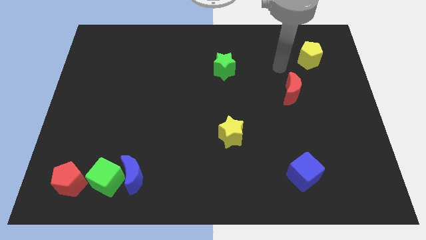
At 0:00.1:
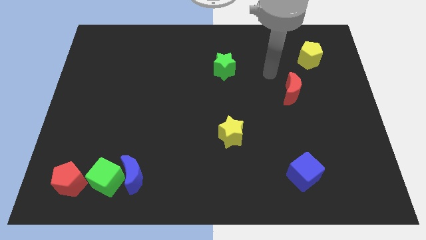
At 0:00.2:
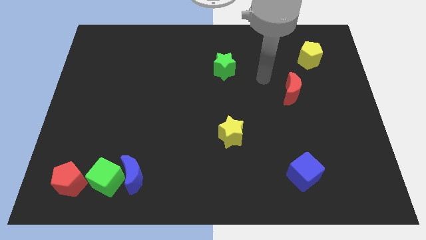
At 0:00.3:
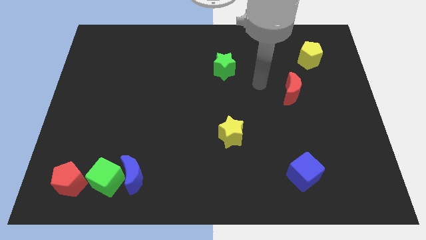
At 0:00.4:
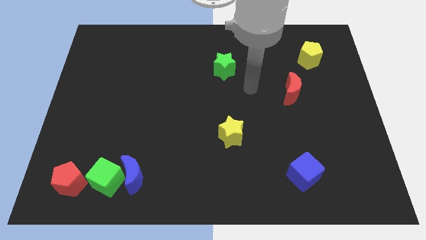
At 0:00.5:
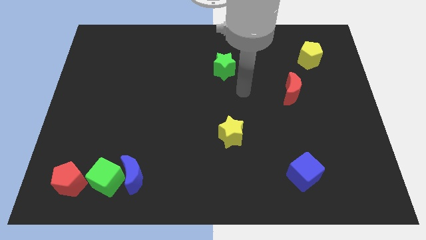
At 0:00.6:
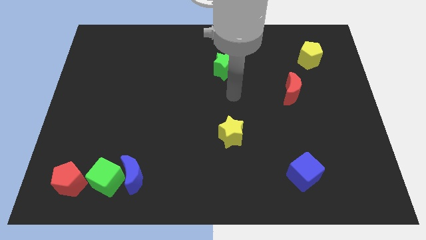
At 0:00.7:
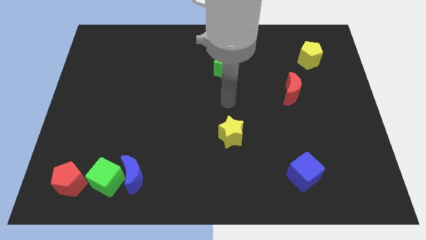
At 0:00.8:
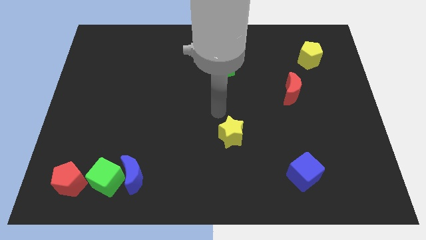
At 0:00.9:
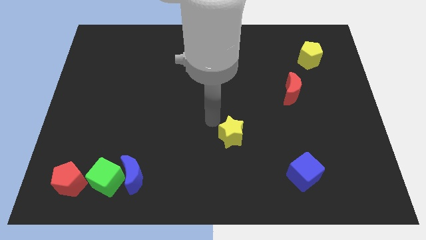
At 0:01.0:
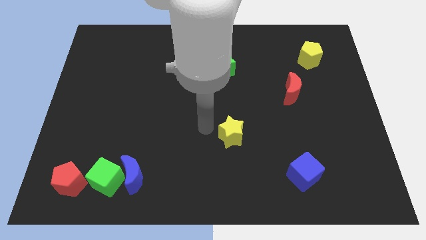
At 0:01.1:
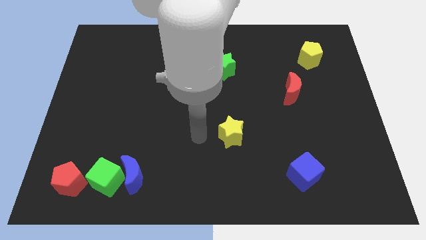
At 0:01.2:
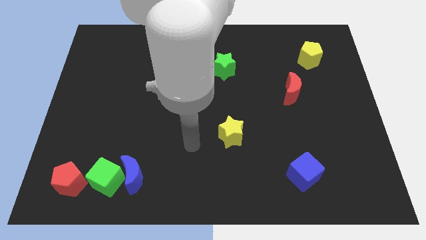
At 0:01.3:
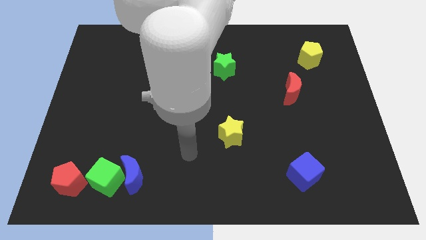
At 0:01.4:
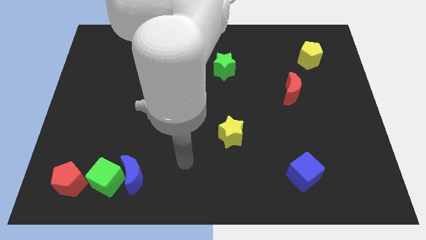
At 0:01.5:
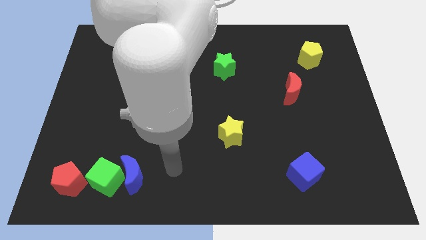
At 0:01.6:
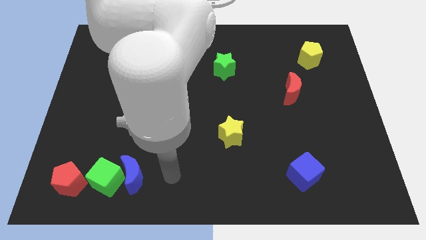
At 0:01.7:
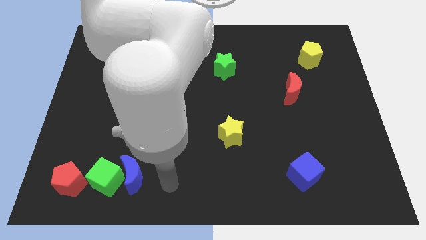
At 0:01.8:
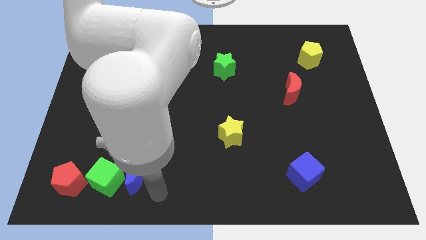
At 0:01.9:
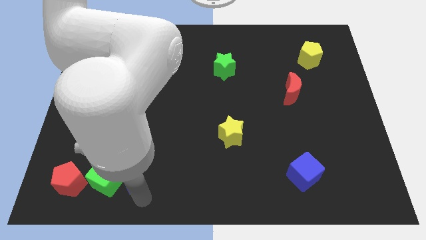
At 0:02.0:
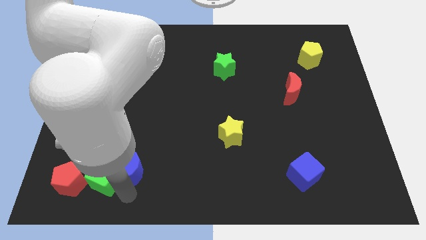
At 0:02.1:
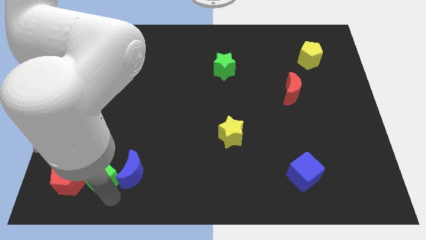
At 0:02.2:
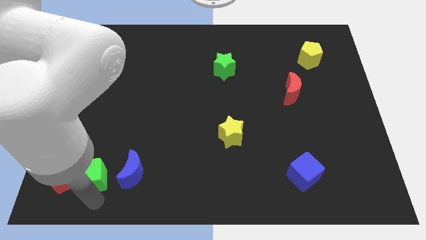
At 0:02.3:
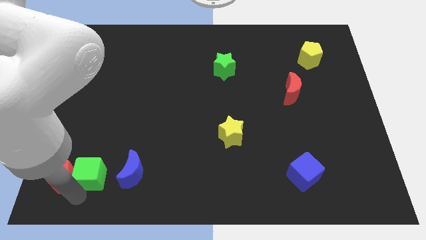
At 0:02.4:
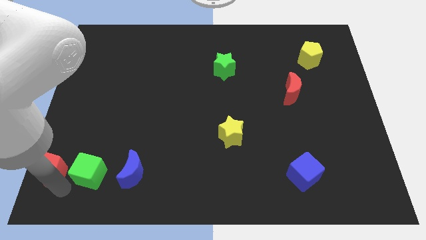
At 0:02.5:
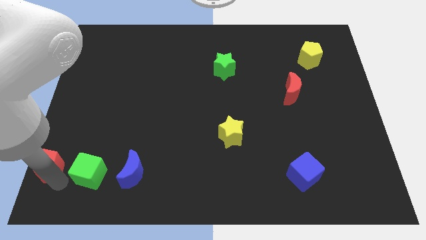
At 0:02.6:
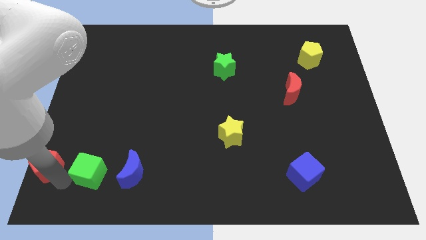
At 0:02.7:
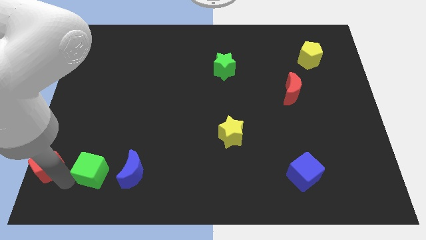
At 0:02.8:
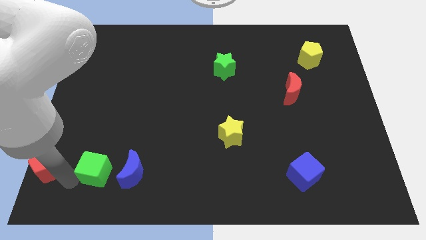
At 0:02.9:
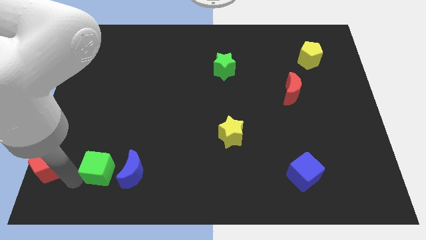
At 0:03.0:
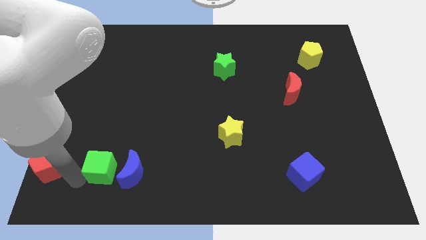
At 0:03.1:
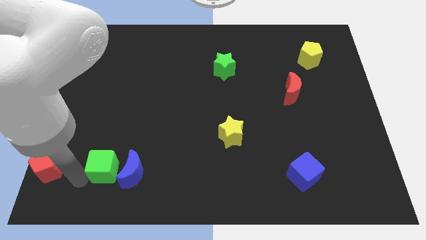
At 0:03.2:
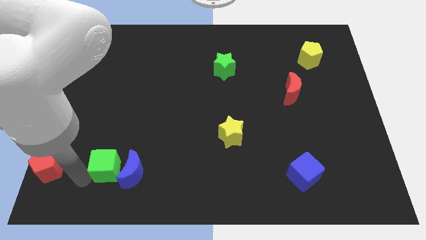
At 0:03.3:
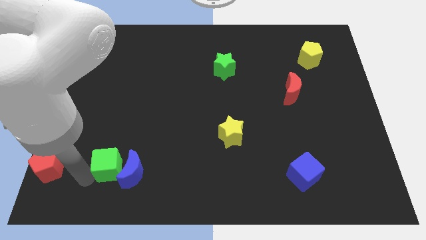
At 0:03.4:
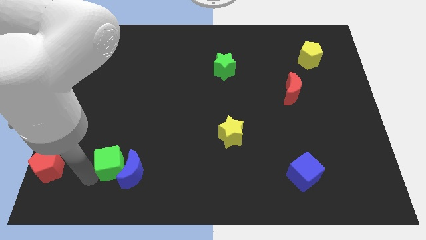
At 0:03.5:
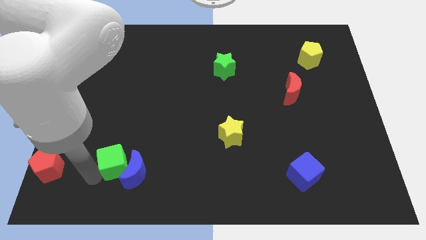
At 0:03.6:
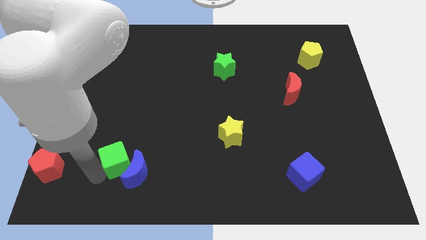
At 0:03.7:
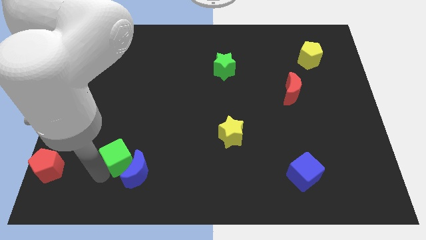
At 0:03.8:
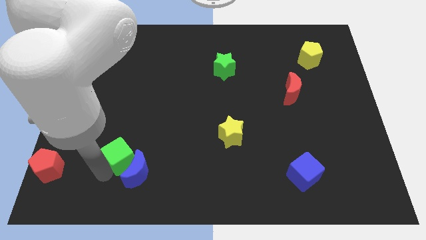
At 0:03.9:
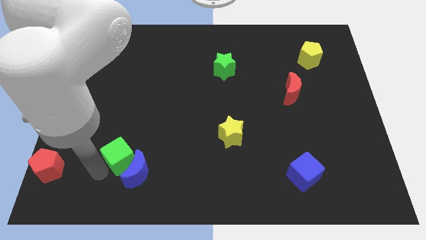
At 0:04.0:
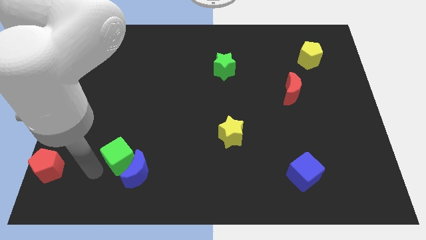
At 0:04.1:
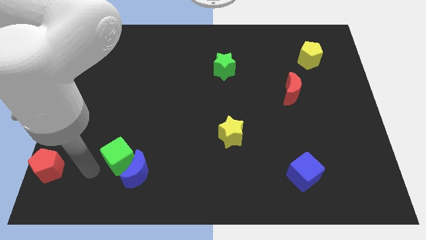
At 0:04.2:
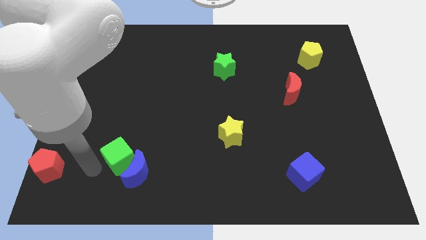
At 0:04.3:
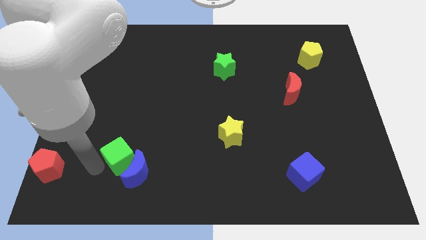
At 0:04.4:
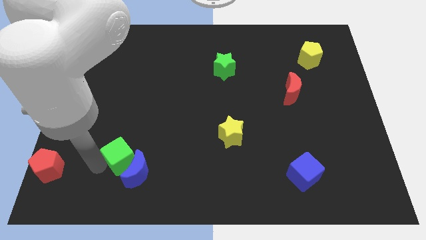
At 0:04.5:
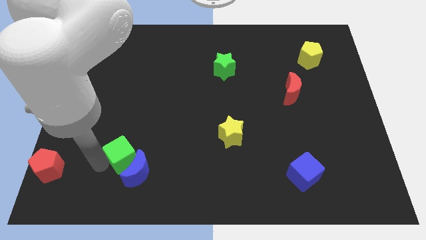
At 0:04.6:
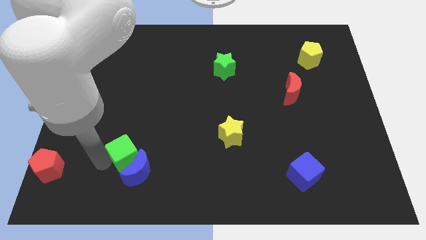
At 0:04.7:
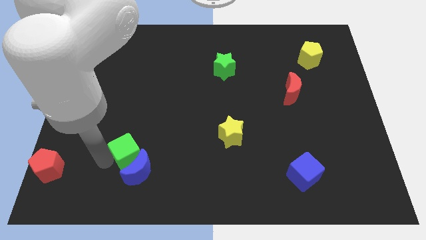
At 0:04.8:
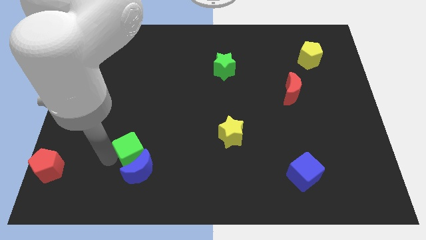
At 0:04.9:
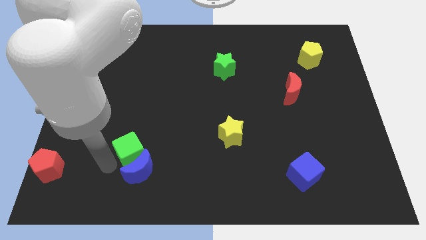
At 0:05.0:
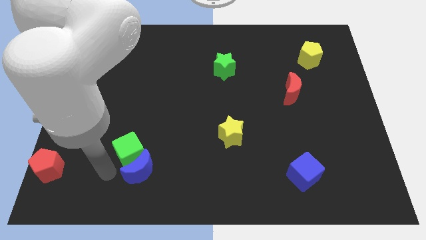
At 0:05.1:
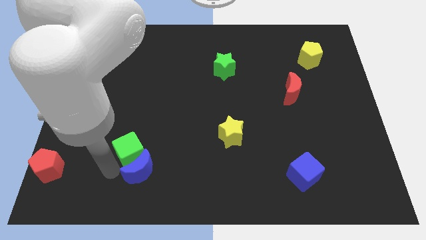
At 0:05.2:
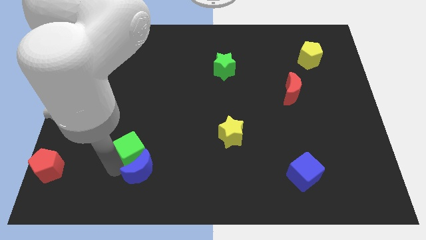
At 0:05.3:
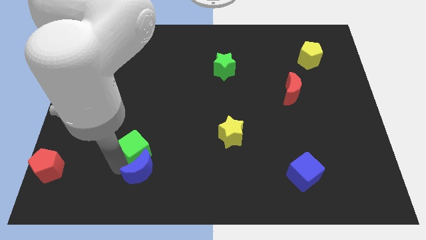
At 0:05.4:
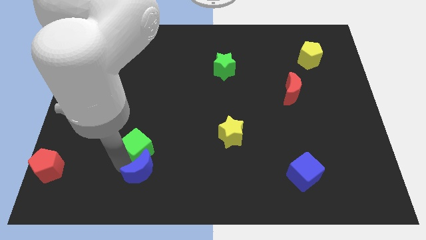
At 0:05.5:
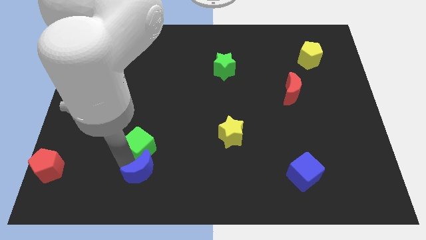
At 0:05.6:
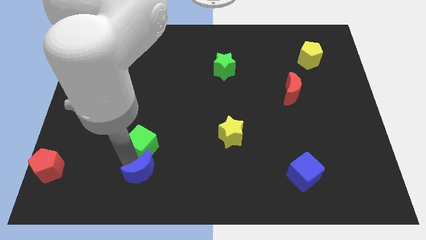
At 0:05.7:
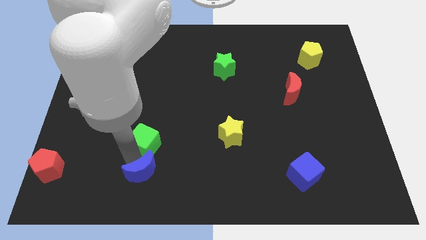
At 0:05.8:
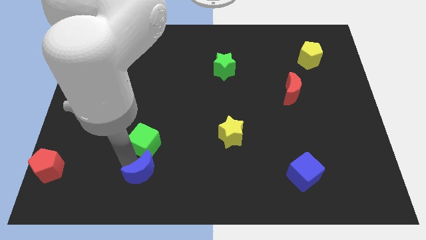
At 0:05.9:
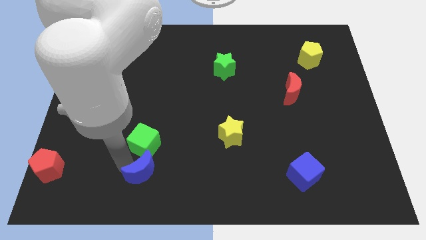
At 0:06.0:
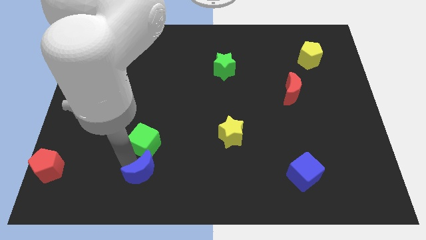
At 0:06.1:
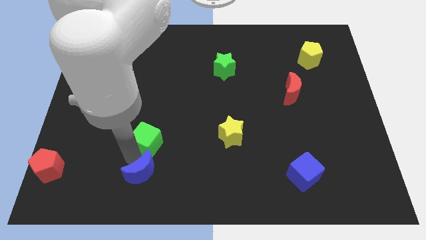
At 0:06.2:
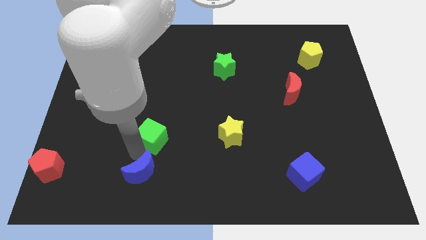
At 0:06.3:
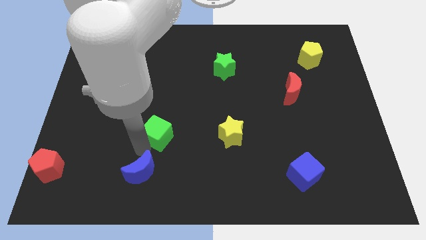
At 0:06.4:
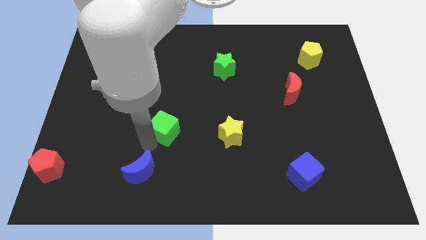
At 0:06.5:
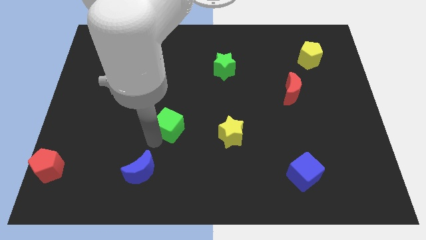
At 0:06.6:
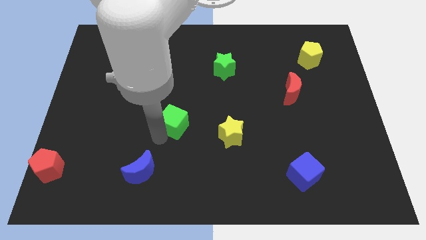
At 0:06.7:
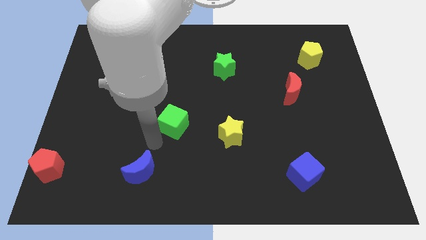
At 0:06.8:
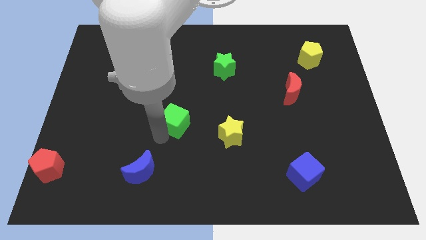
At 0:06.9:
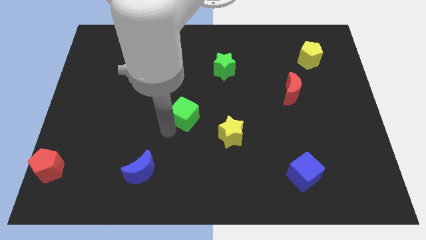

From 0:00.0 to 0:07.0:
push the green cube upwards and to the right diagonally

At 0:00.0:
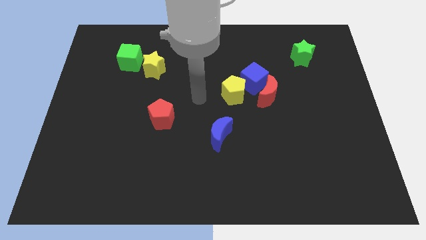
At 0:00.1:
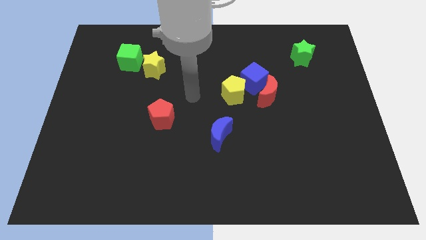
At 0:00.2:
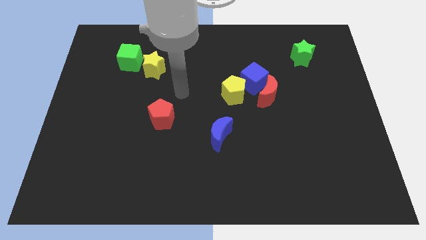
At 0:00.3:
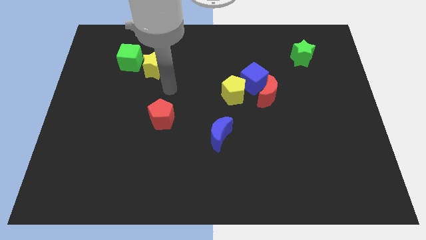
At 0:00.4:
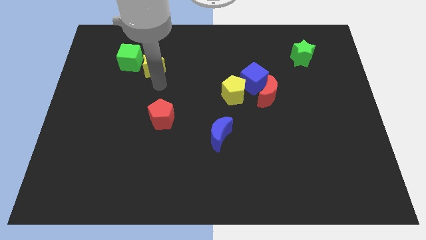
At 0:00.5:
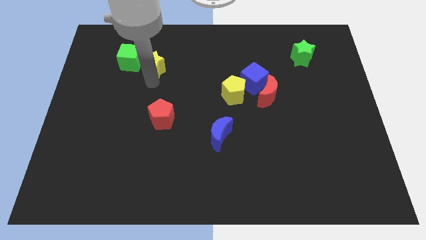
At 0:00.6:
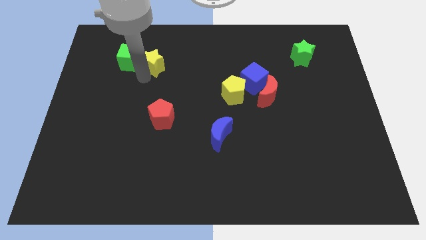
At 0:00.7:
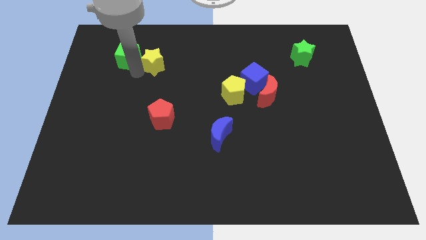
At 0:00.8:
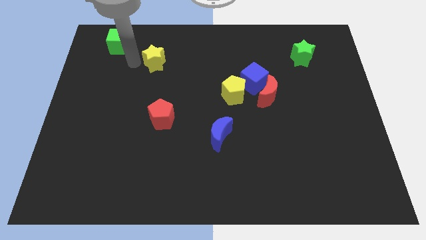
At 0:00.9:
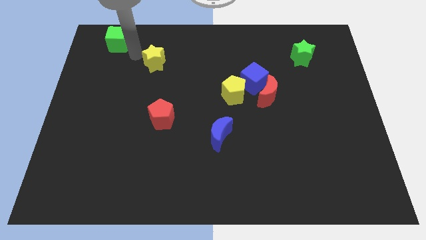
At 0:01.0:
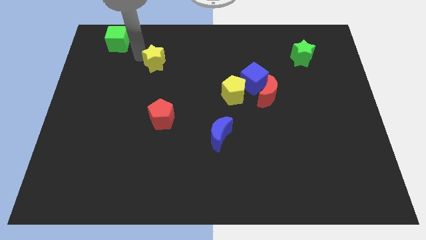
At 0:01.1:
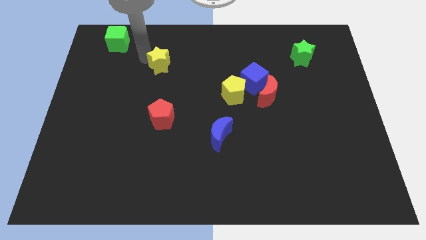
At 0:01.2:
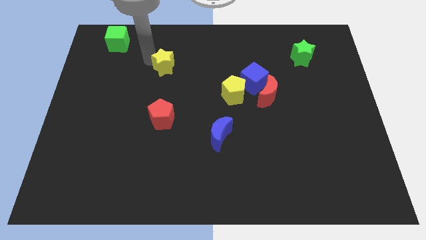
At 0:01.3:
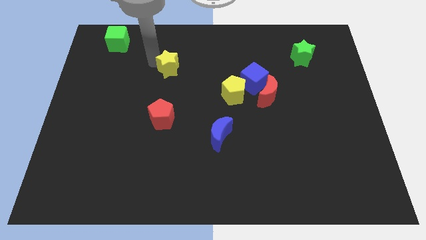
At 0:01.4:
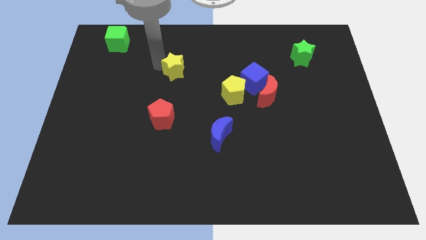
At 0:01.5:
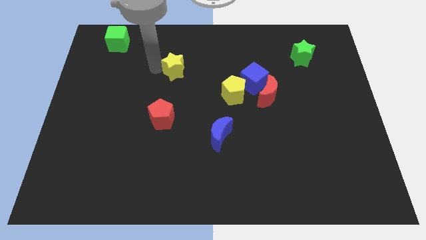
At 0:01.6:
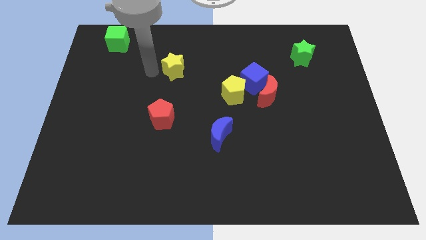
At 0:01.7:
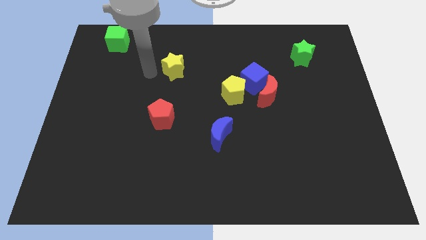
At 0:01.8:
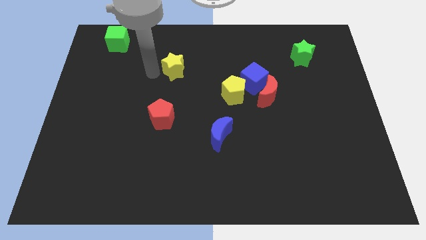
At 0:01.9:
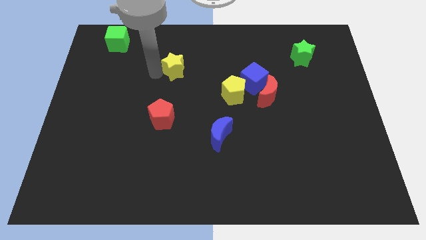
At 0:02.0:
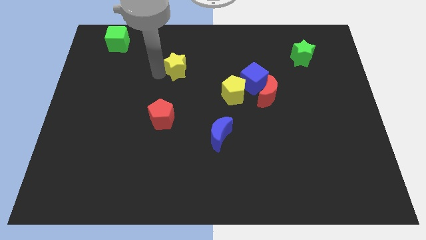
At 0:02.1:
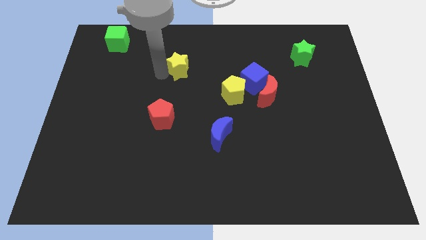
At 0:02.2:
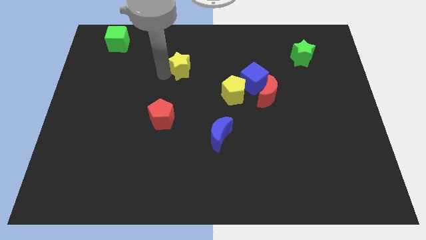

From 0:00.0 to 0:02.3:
move the yellow star a little right
